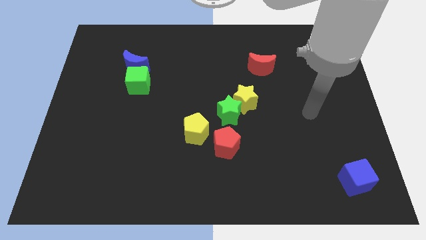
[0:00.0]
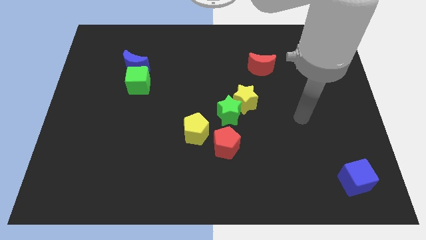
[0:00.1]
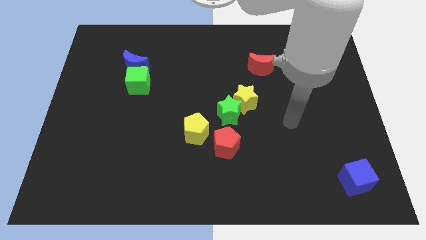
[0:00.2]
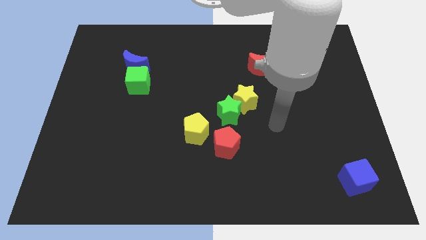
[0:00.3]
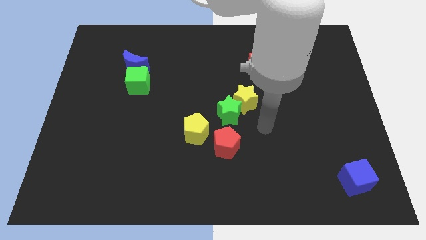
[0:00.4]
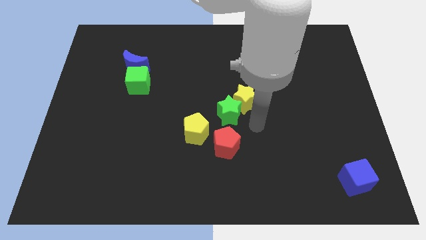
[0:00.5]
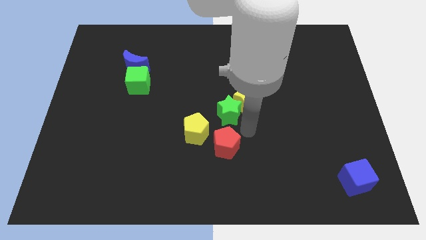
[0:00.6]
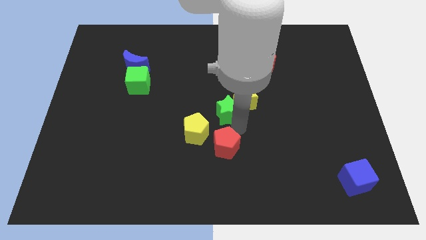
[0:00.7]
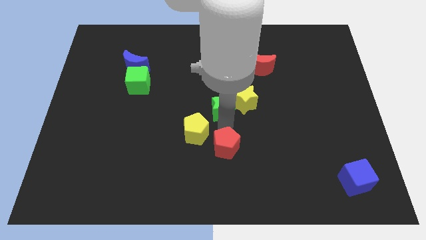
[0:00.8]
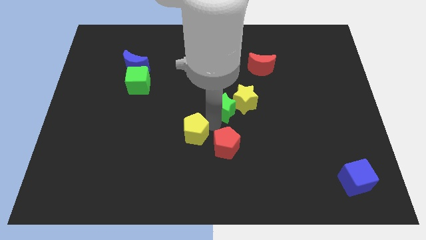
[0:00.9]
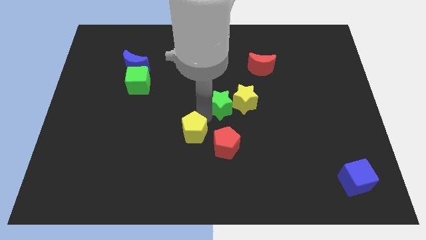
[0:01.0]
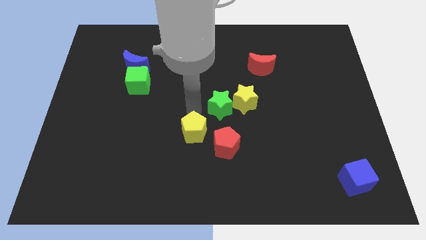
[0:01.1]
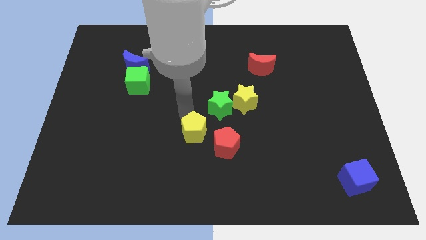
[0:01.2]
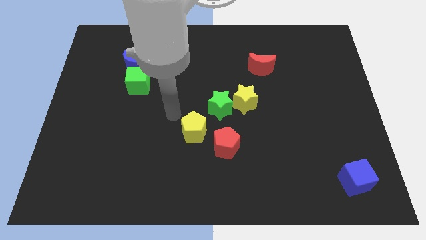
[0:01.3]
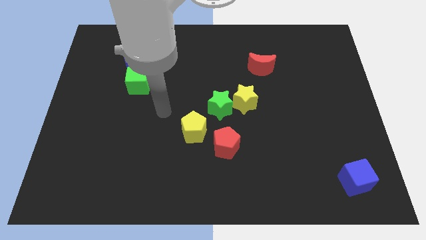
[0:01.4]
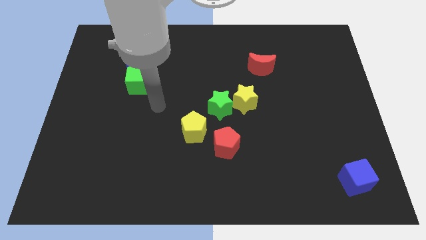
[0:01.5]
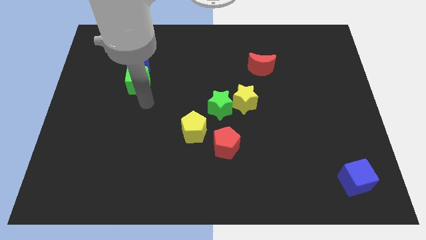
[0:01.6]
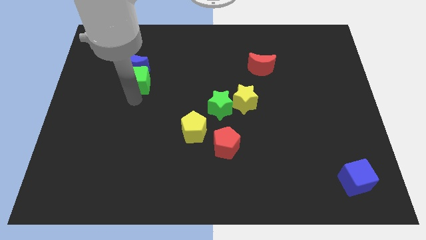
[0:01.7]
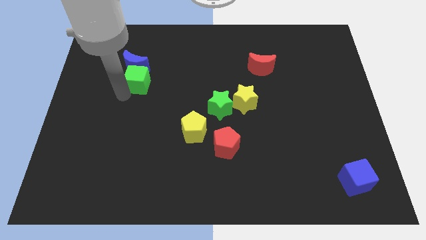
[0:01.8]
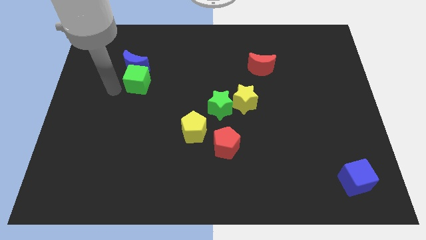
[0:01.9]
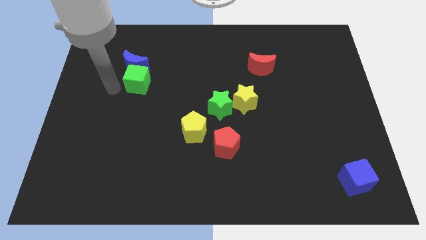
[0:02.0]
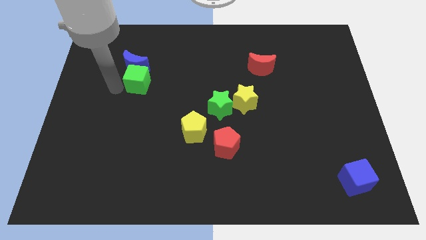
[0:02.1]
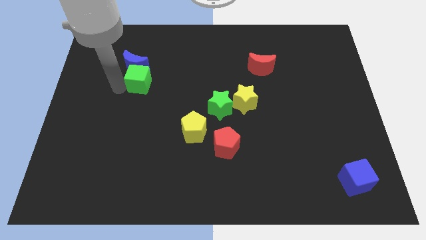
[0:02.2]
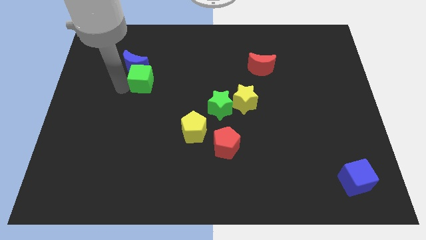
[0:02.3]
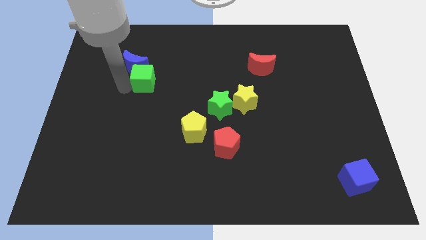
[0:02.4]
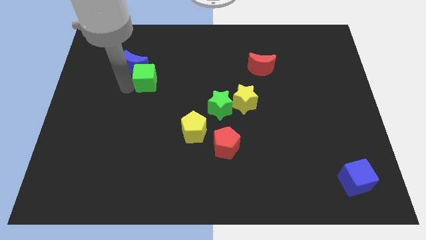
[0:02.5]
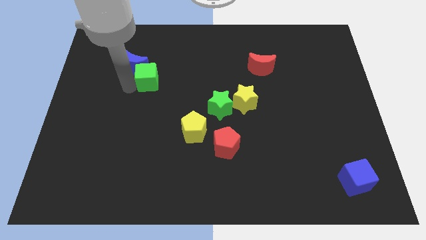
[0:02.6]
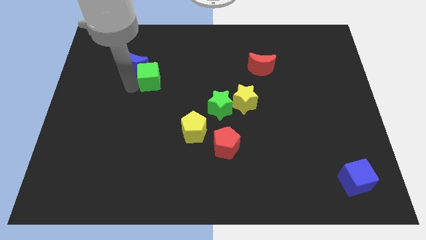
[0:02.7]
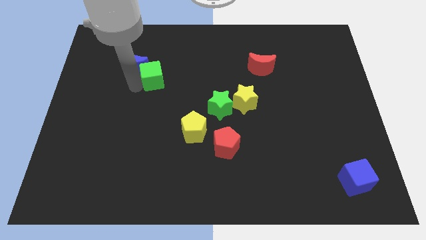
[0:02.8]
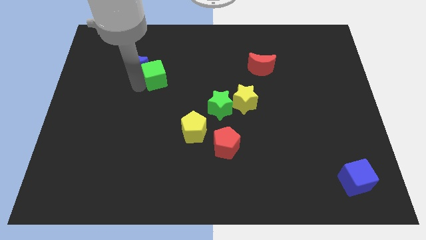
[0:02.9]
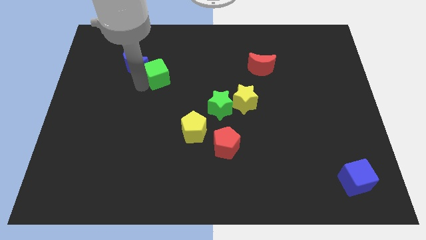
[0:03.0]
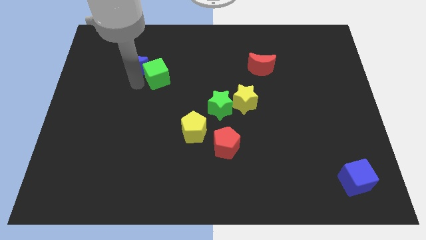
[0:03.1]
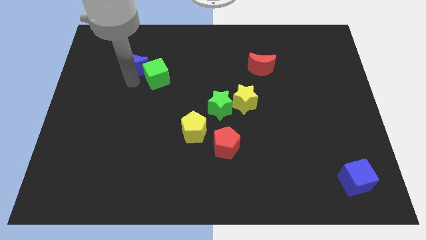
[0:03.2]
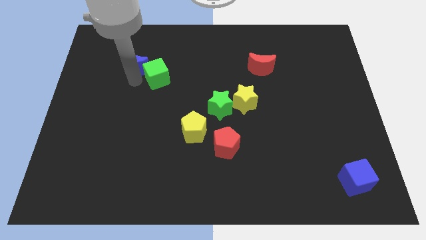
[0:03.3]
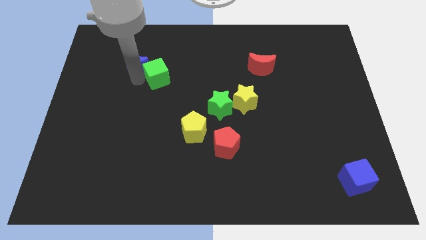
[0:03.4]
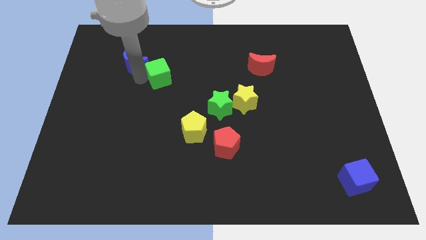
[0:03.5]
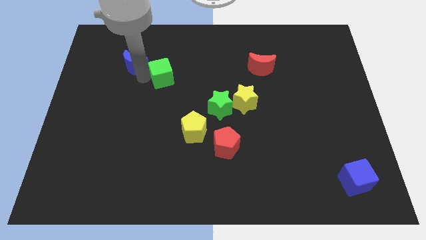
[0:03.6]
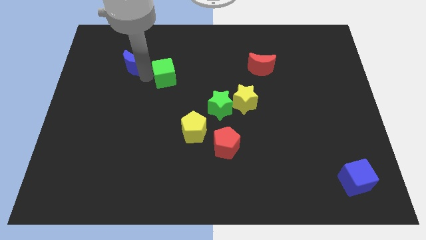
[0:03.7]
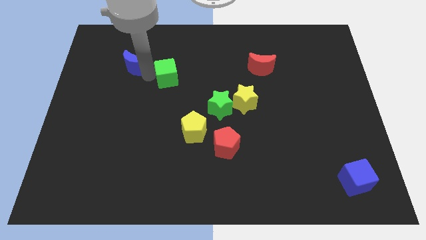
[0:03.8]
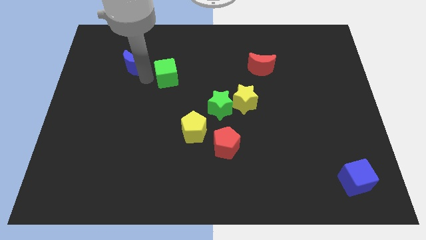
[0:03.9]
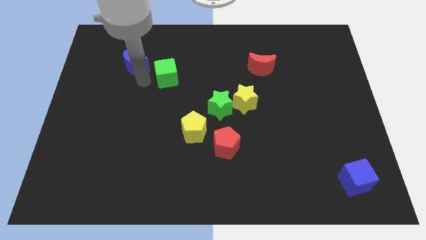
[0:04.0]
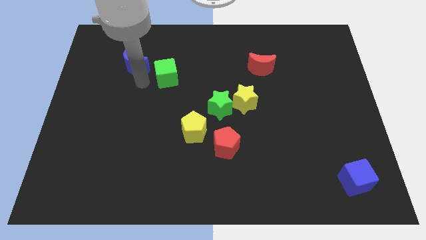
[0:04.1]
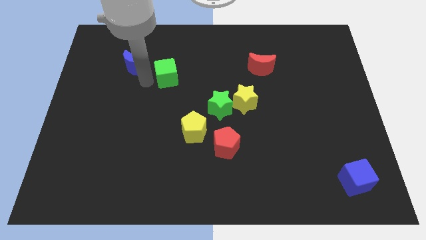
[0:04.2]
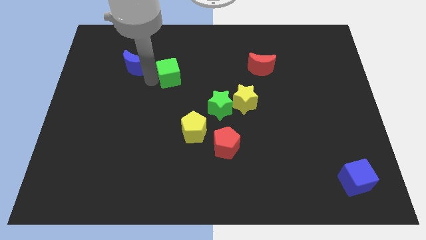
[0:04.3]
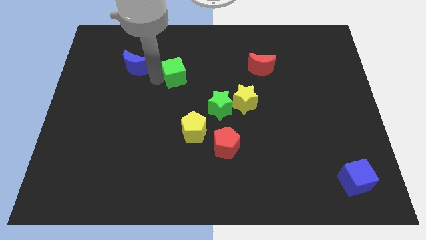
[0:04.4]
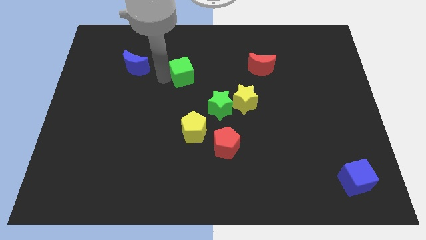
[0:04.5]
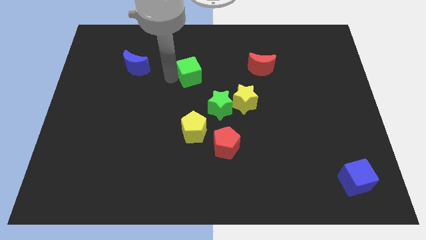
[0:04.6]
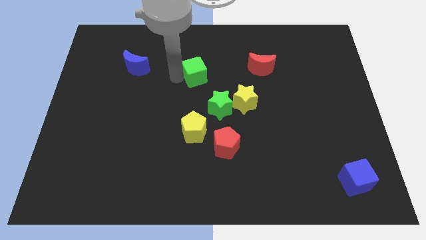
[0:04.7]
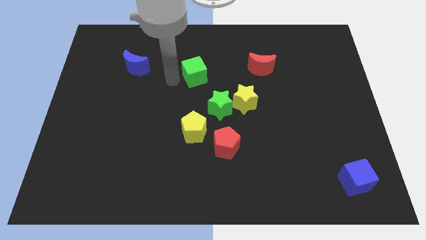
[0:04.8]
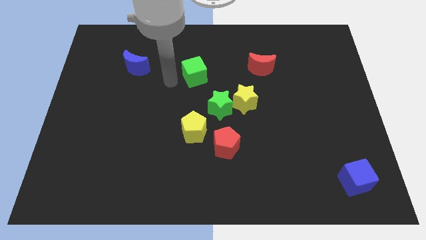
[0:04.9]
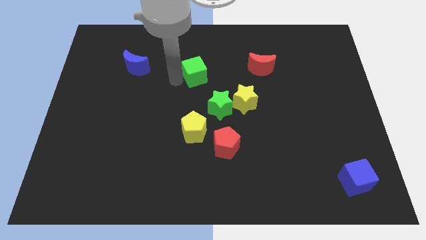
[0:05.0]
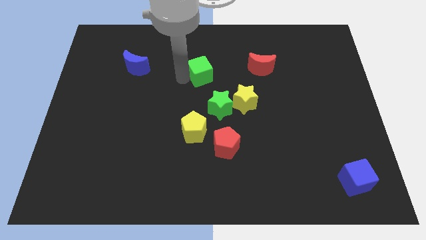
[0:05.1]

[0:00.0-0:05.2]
move the green cube left of the red moon

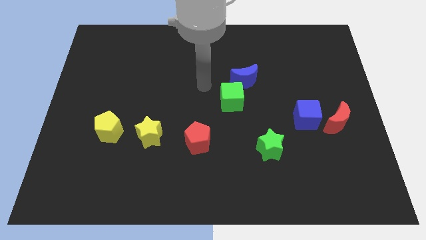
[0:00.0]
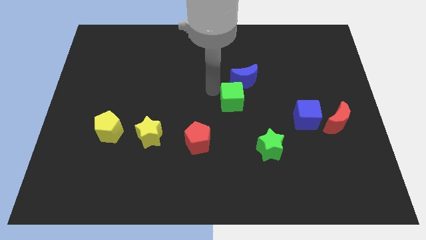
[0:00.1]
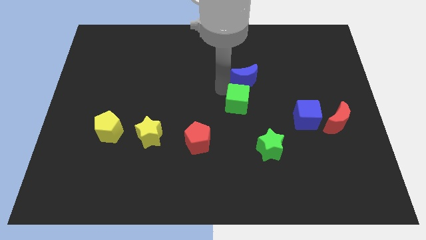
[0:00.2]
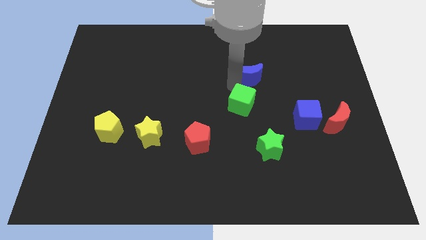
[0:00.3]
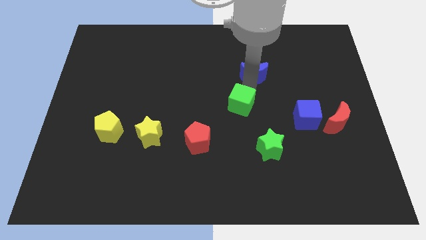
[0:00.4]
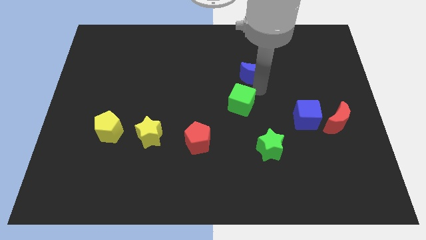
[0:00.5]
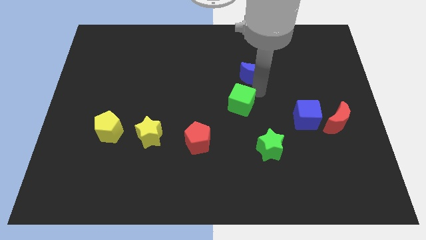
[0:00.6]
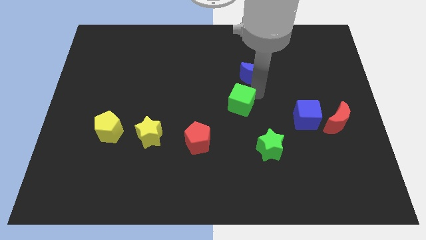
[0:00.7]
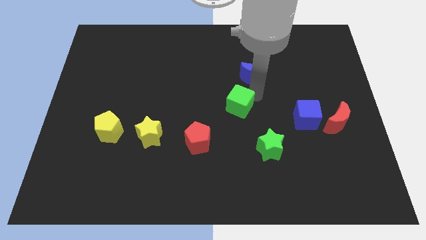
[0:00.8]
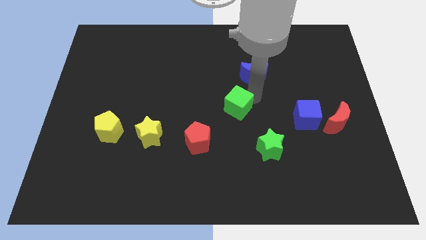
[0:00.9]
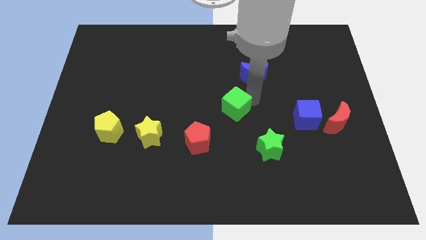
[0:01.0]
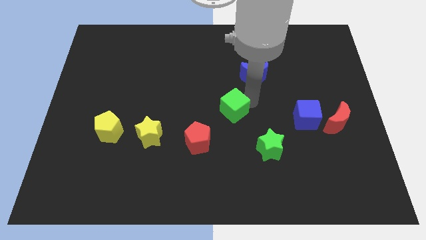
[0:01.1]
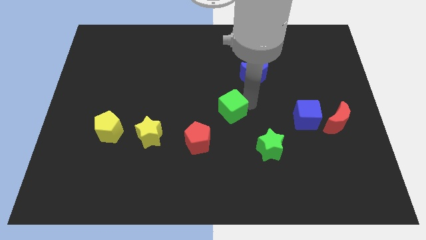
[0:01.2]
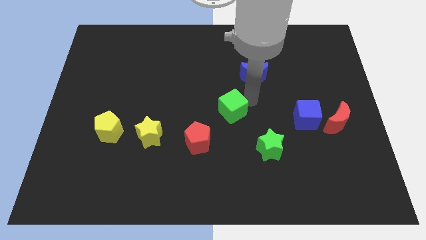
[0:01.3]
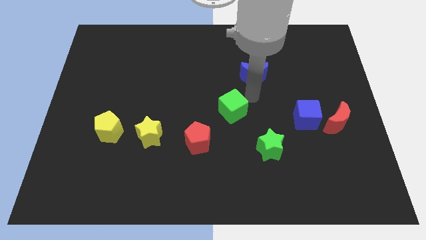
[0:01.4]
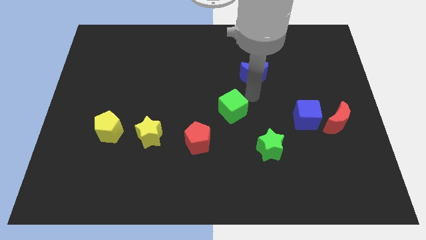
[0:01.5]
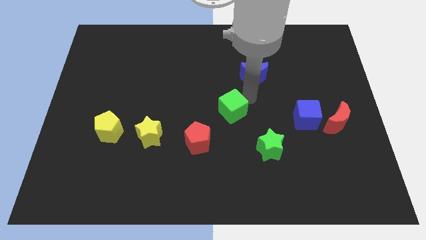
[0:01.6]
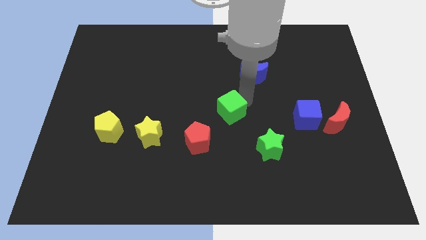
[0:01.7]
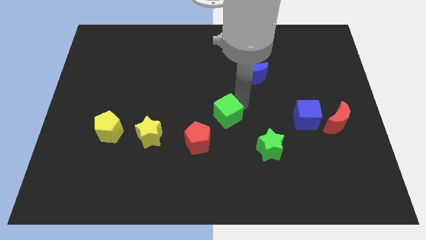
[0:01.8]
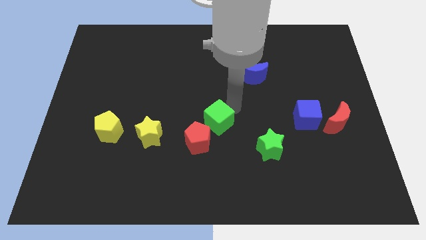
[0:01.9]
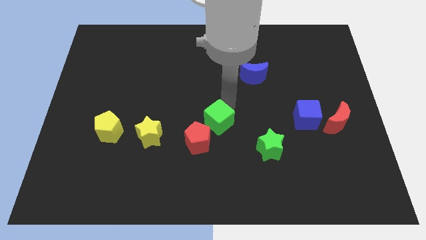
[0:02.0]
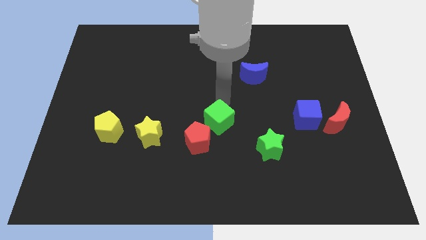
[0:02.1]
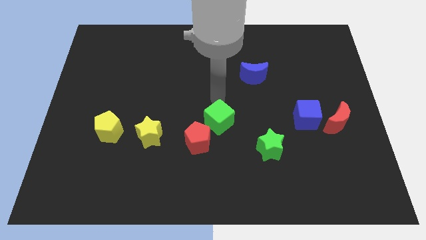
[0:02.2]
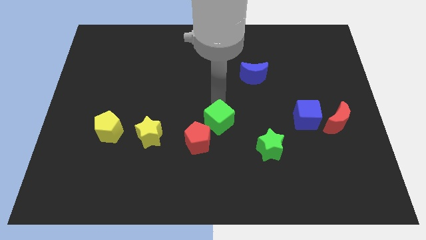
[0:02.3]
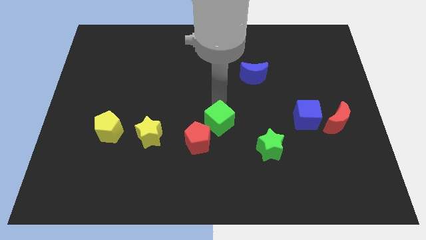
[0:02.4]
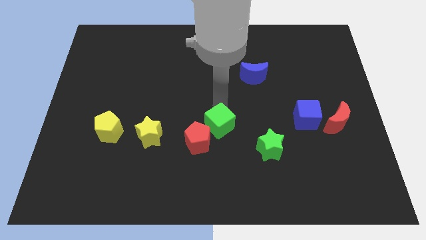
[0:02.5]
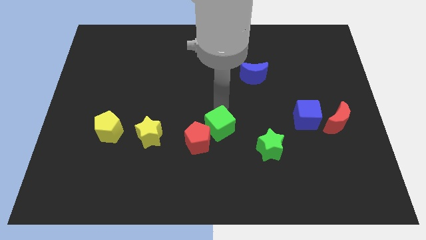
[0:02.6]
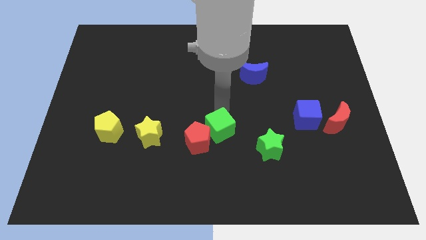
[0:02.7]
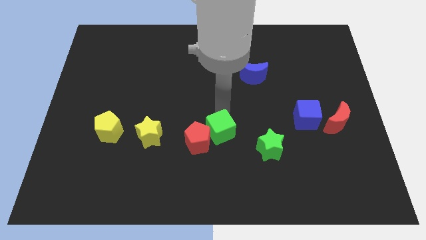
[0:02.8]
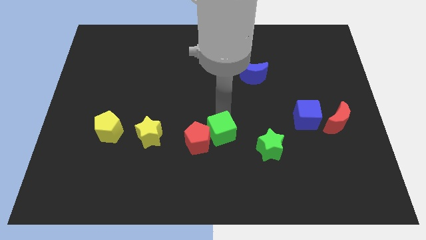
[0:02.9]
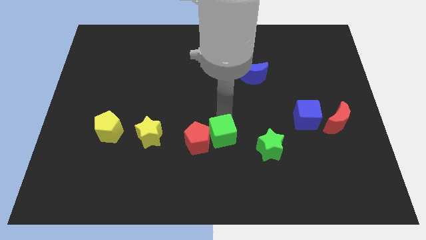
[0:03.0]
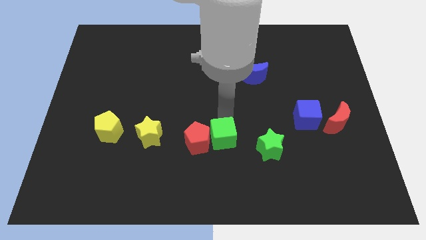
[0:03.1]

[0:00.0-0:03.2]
push the green cube to the bottom right of the red pentagon

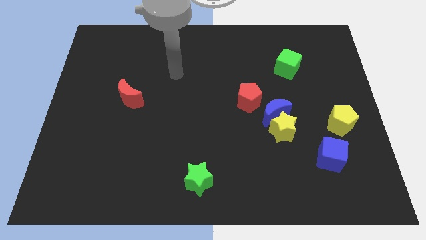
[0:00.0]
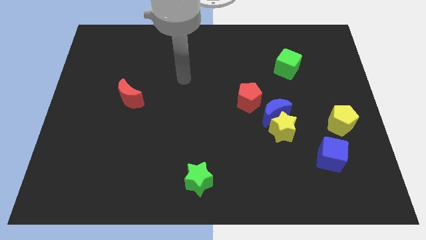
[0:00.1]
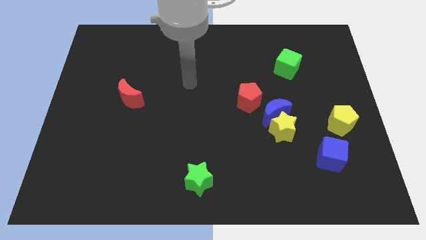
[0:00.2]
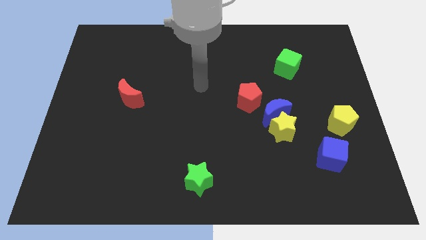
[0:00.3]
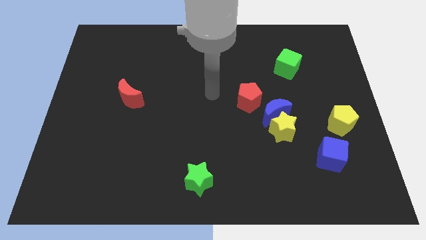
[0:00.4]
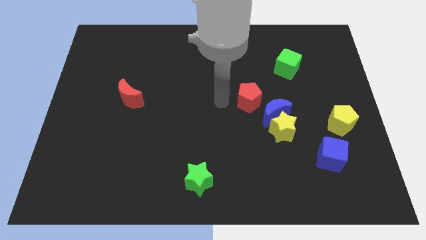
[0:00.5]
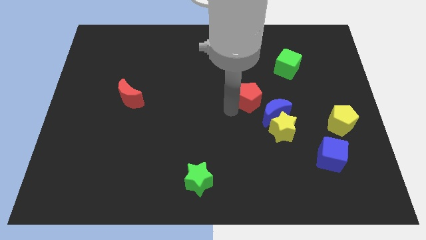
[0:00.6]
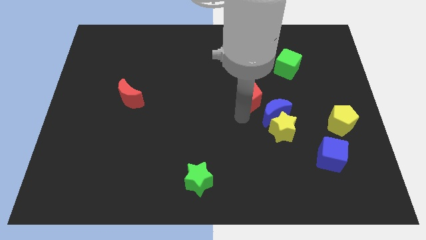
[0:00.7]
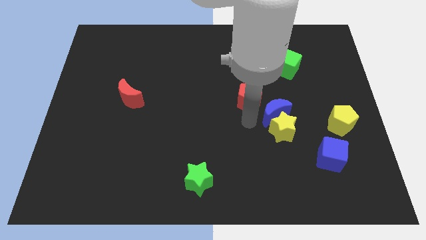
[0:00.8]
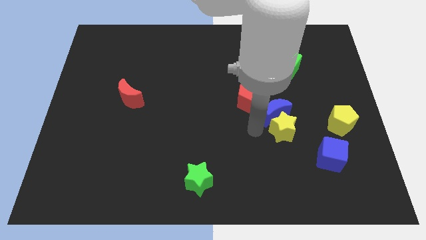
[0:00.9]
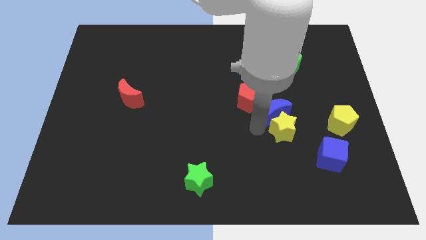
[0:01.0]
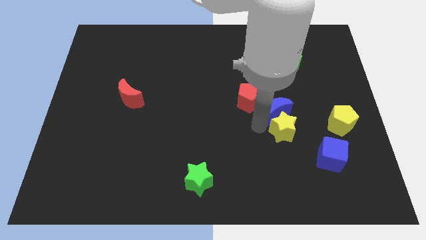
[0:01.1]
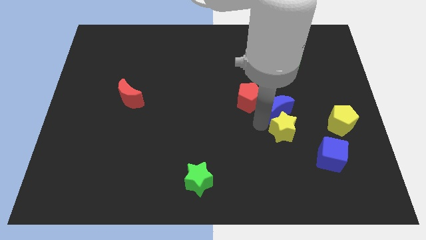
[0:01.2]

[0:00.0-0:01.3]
slide the blue moon to the bottom side of the green cube
